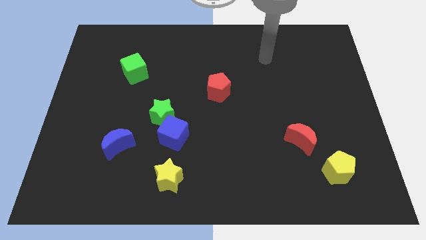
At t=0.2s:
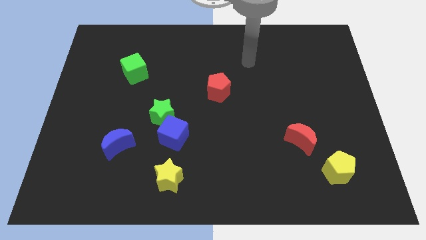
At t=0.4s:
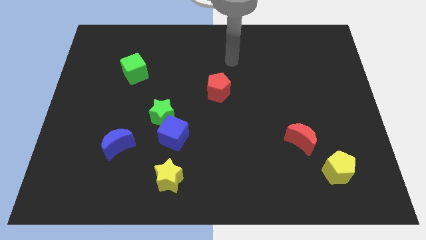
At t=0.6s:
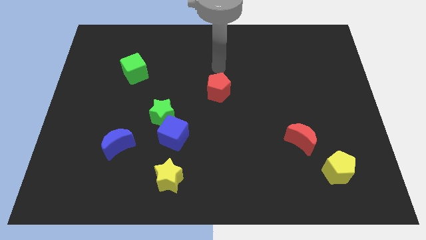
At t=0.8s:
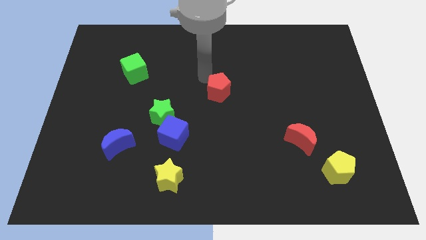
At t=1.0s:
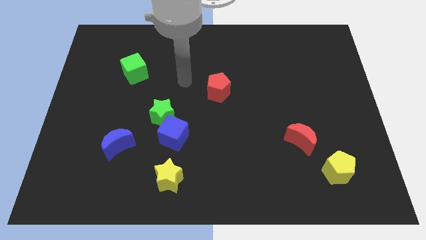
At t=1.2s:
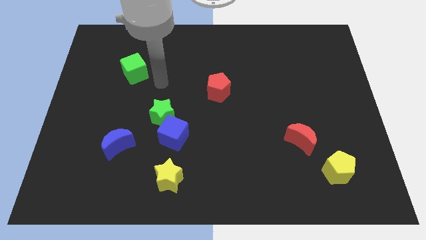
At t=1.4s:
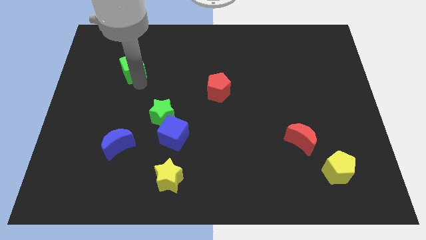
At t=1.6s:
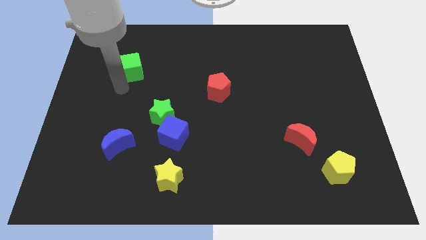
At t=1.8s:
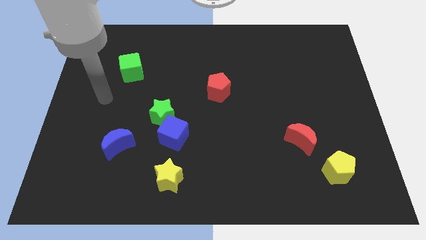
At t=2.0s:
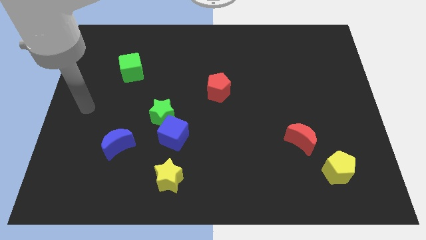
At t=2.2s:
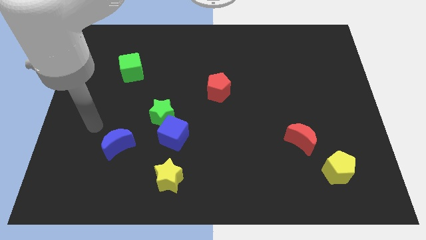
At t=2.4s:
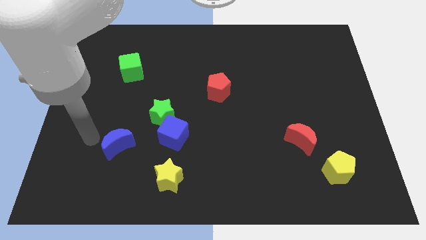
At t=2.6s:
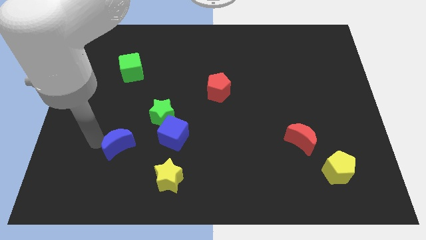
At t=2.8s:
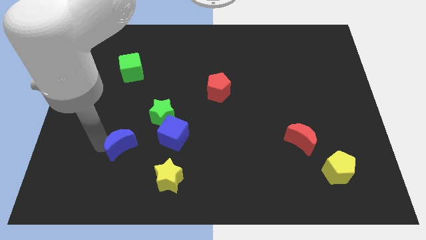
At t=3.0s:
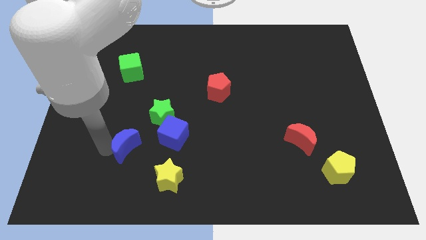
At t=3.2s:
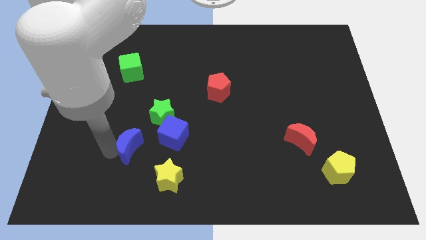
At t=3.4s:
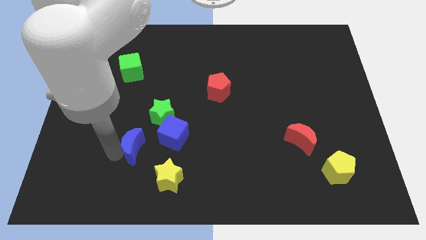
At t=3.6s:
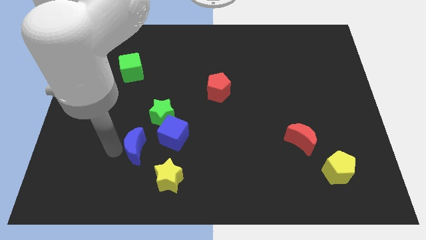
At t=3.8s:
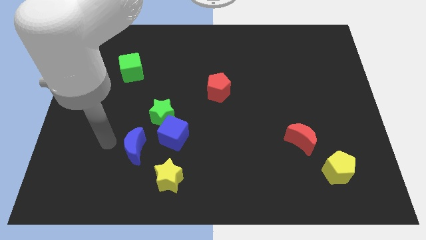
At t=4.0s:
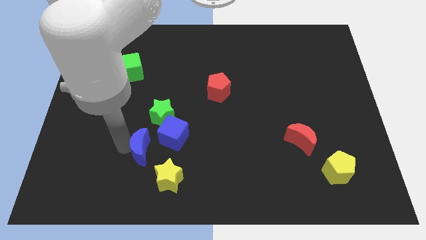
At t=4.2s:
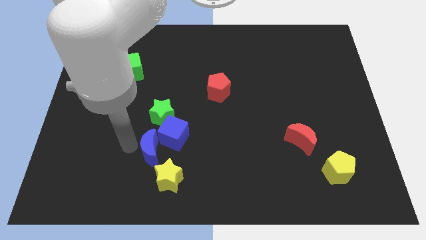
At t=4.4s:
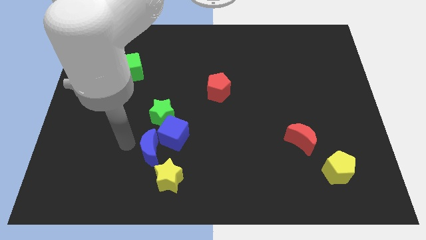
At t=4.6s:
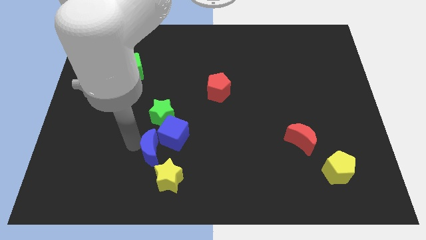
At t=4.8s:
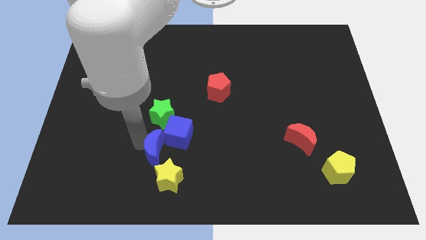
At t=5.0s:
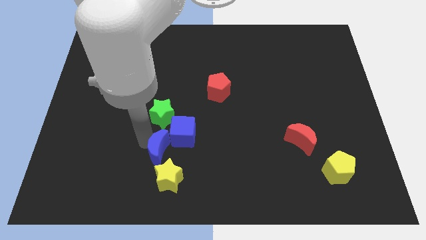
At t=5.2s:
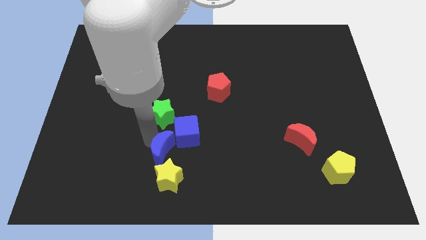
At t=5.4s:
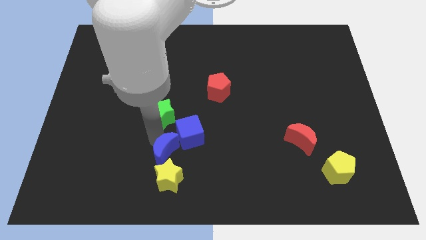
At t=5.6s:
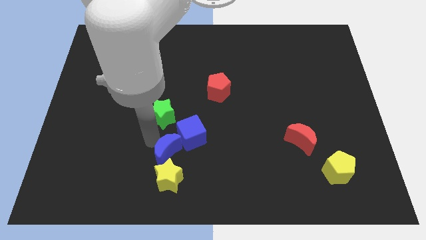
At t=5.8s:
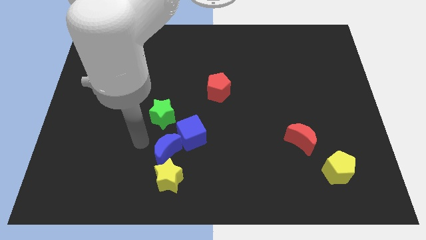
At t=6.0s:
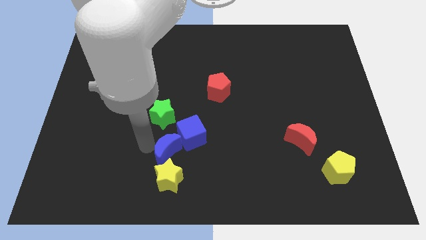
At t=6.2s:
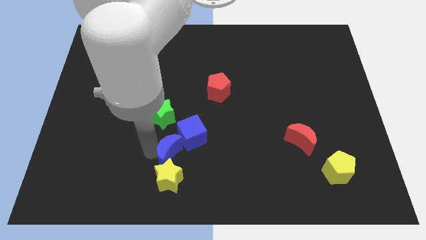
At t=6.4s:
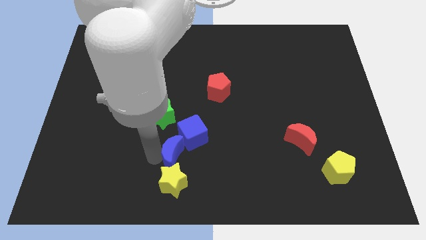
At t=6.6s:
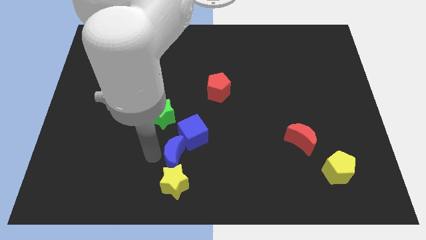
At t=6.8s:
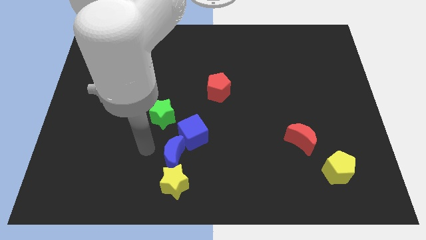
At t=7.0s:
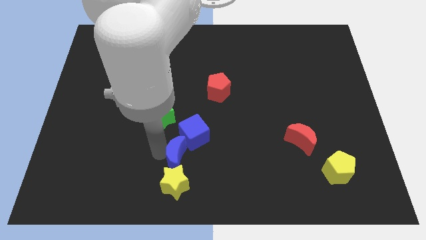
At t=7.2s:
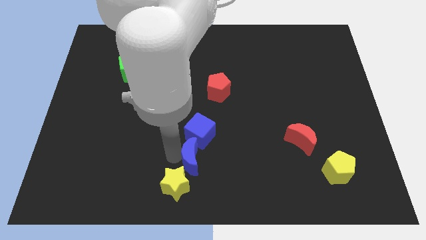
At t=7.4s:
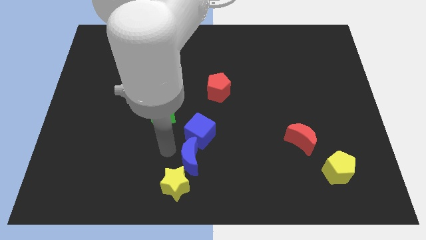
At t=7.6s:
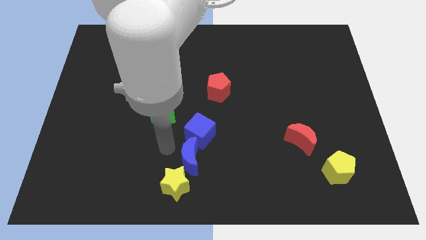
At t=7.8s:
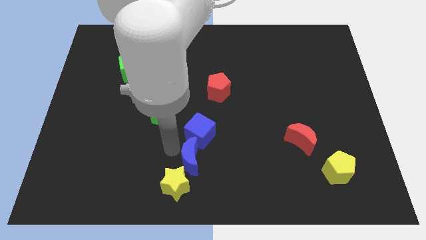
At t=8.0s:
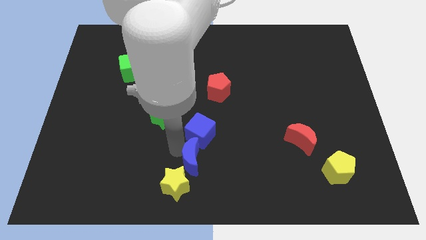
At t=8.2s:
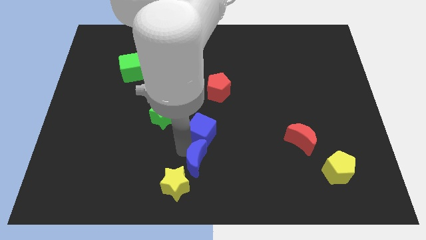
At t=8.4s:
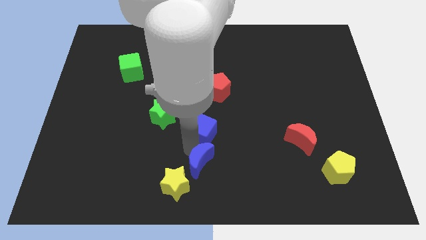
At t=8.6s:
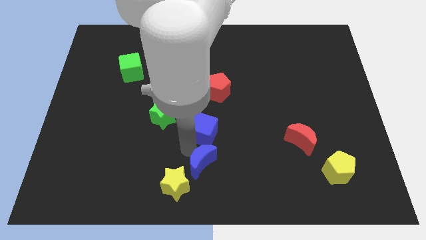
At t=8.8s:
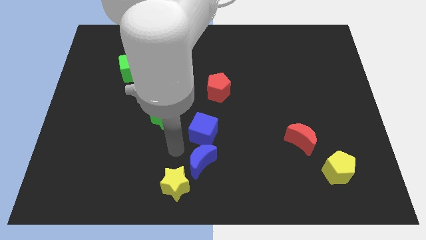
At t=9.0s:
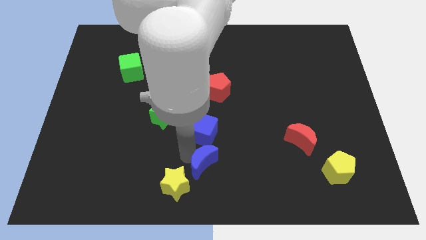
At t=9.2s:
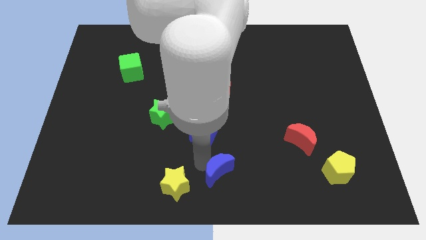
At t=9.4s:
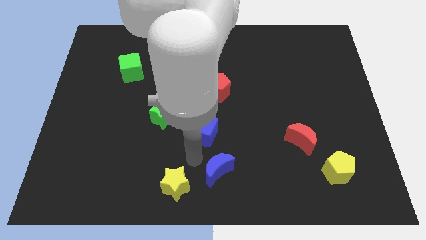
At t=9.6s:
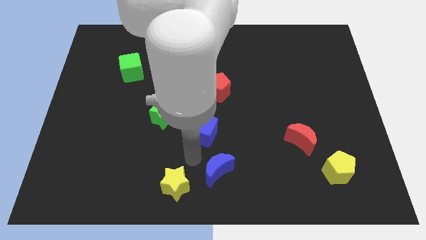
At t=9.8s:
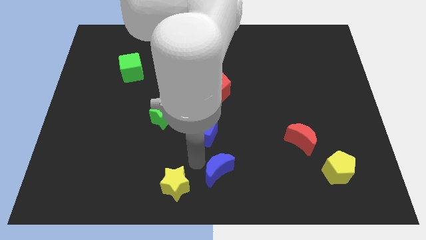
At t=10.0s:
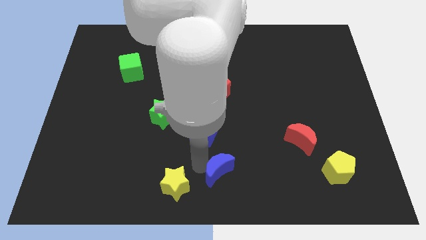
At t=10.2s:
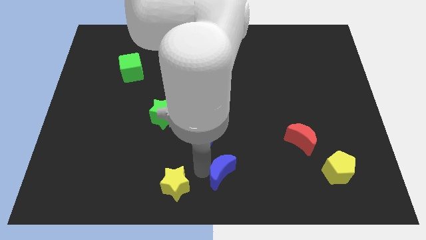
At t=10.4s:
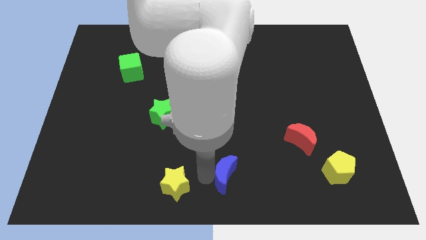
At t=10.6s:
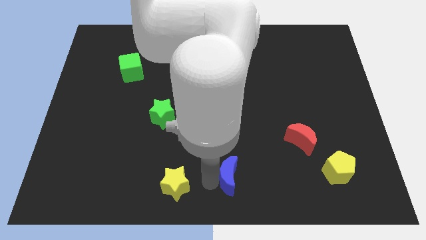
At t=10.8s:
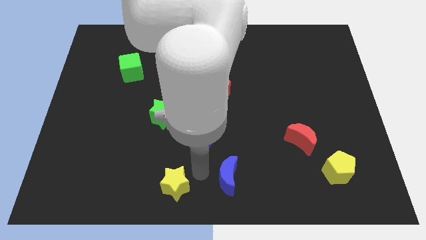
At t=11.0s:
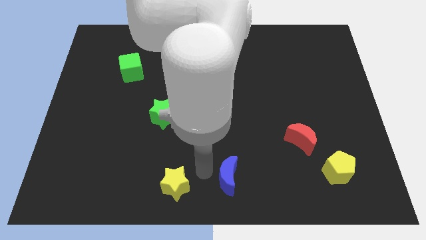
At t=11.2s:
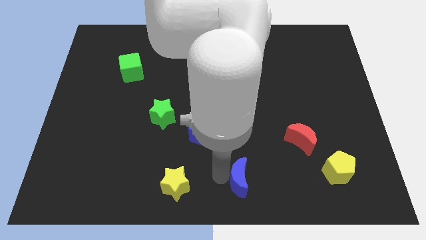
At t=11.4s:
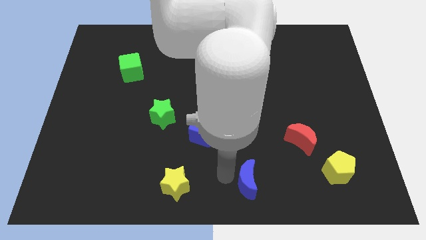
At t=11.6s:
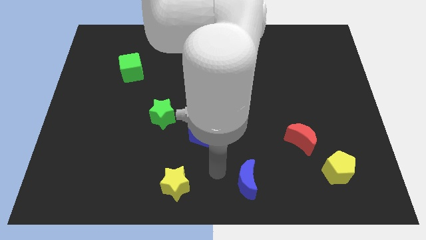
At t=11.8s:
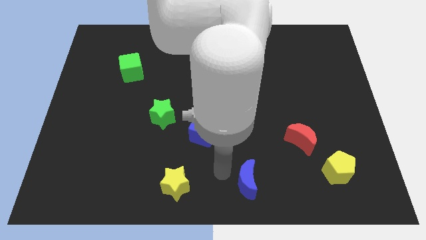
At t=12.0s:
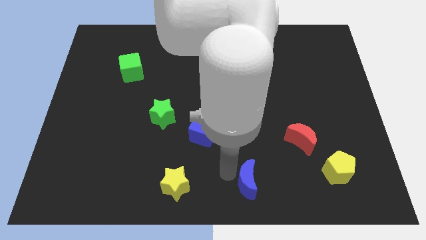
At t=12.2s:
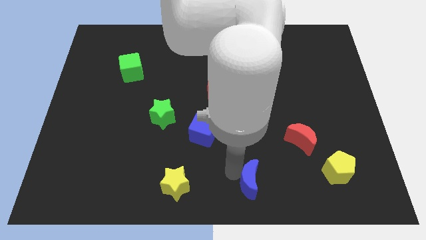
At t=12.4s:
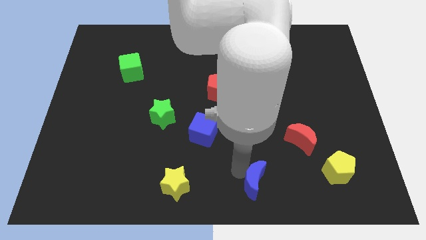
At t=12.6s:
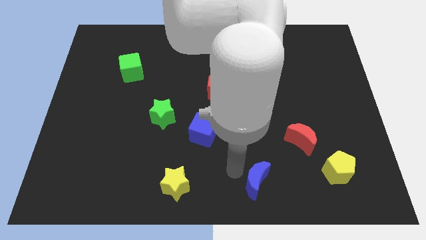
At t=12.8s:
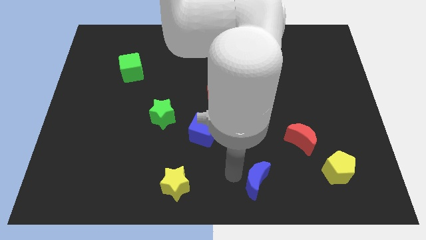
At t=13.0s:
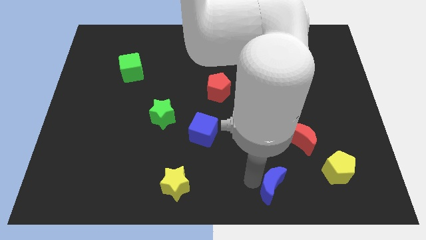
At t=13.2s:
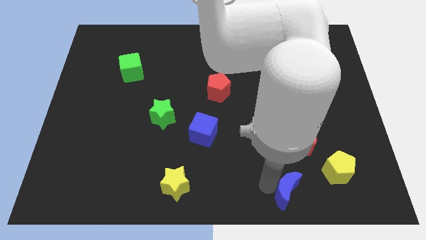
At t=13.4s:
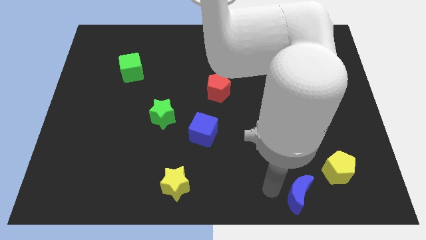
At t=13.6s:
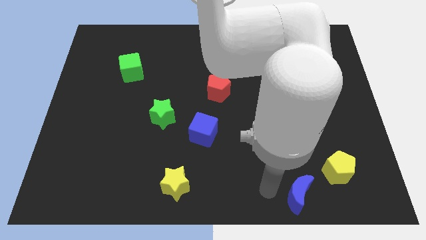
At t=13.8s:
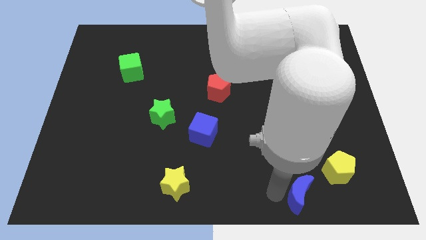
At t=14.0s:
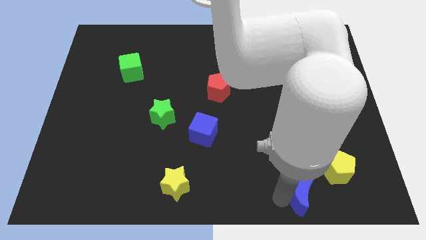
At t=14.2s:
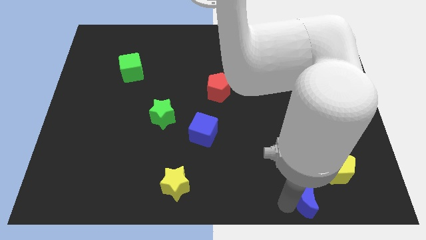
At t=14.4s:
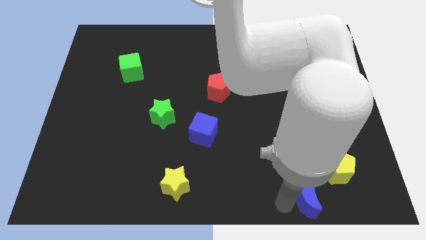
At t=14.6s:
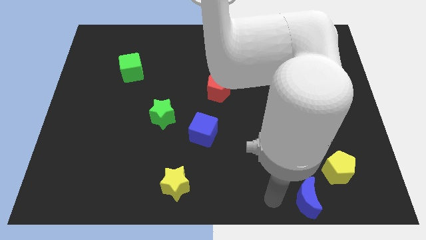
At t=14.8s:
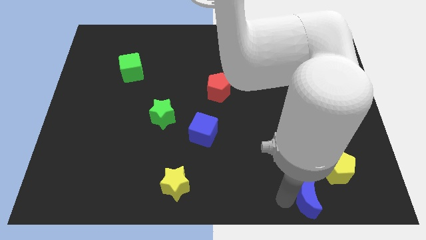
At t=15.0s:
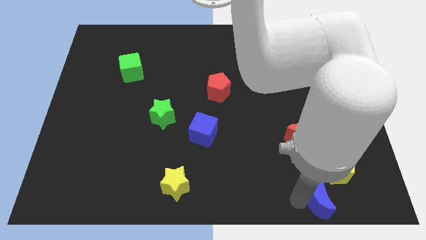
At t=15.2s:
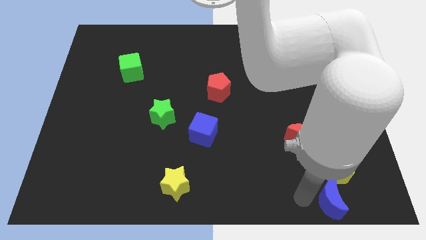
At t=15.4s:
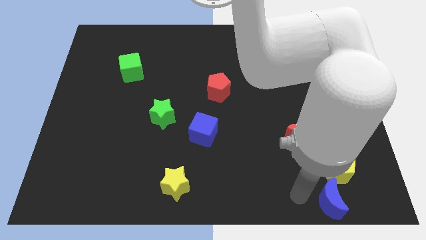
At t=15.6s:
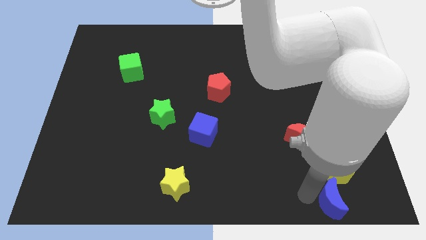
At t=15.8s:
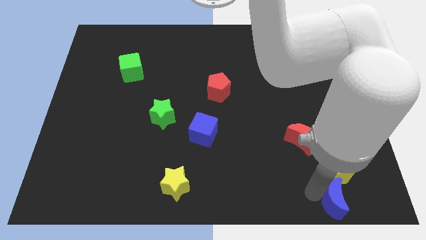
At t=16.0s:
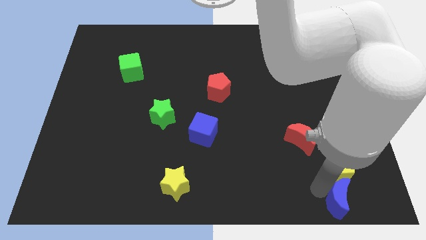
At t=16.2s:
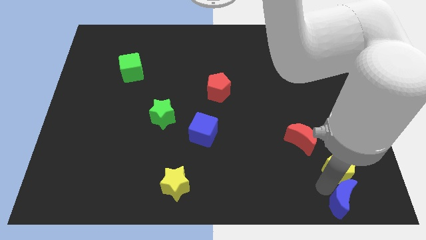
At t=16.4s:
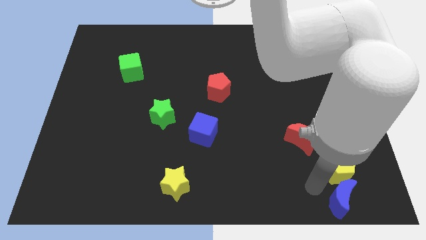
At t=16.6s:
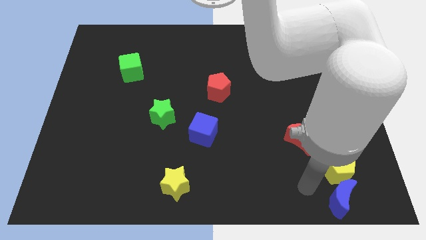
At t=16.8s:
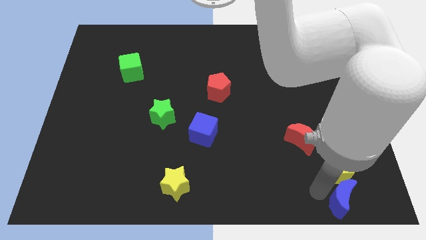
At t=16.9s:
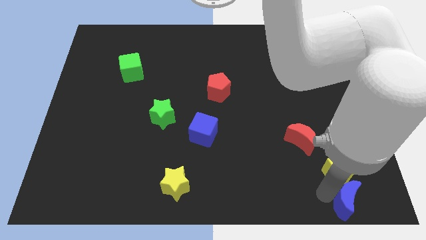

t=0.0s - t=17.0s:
slide the blue moon to the bottom right
